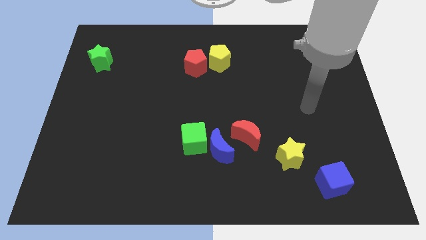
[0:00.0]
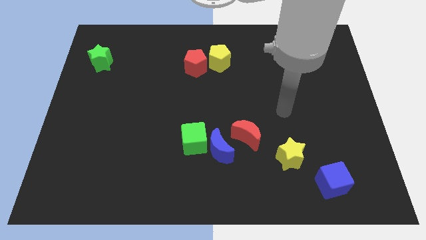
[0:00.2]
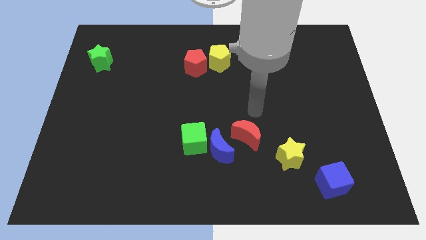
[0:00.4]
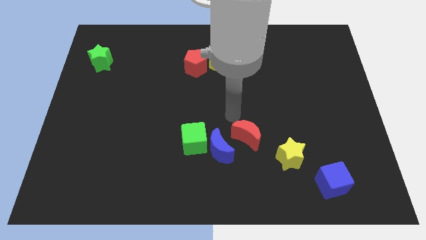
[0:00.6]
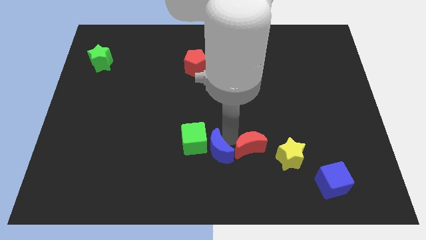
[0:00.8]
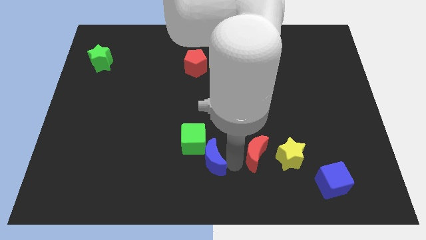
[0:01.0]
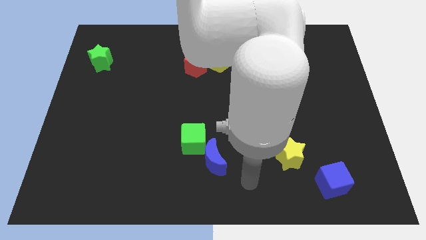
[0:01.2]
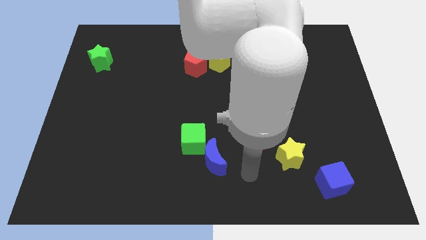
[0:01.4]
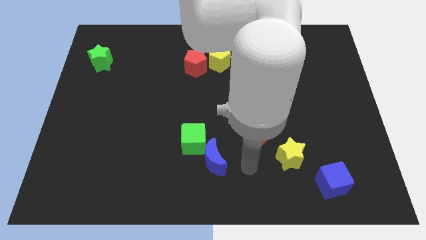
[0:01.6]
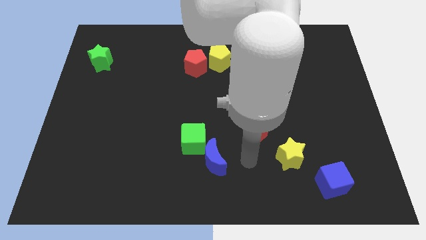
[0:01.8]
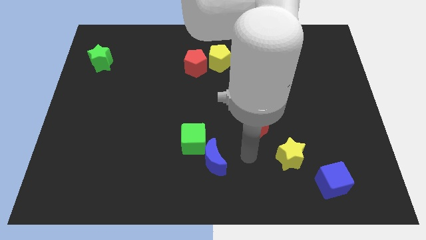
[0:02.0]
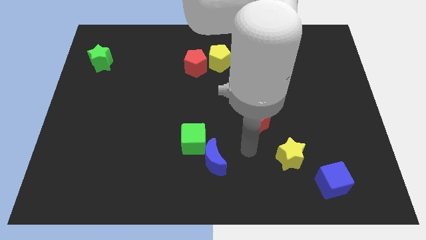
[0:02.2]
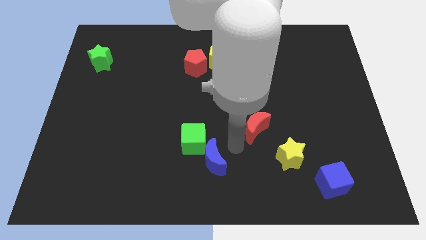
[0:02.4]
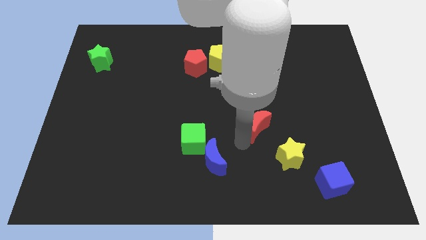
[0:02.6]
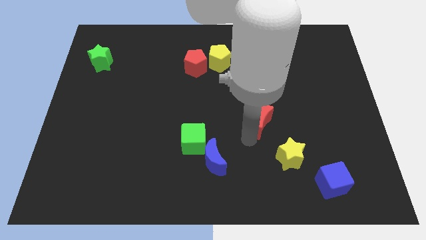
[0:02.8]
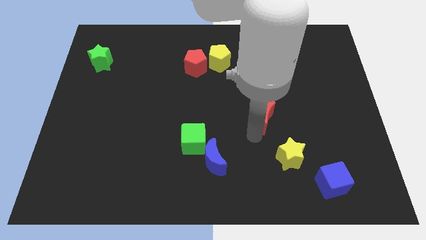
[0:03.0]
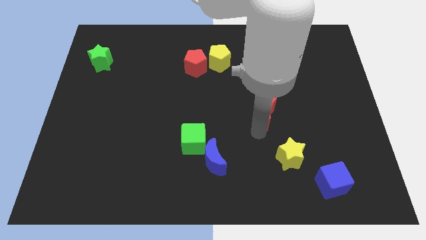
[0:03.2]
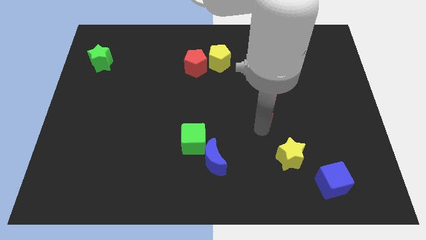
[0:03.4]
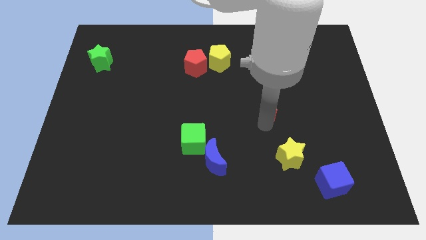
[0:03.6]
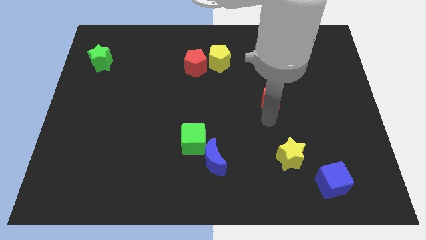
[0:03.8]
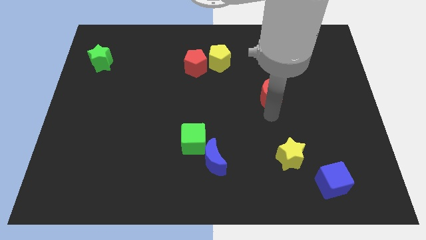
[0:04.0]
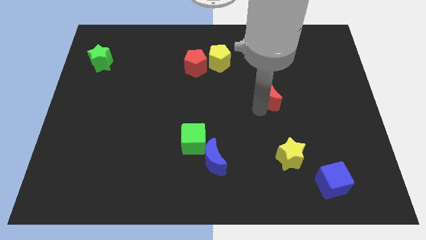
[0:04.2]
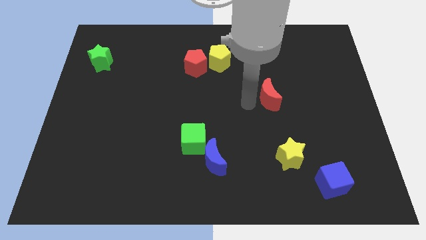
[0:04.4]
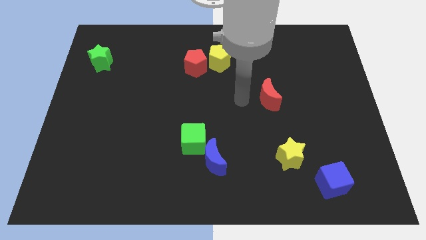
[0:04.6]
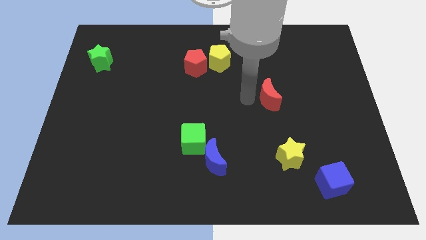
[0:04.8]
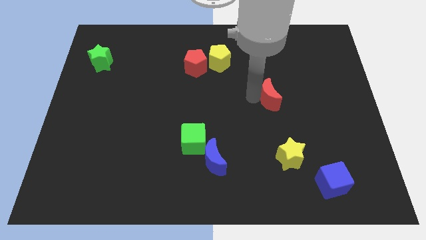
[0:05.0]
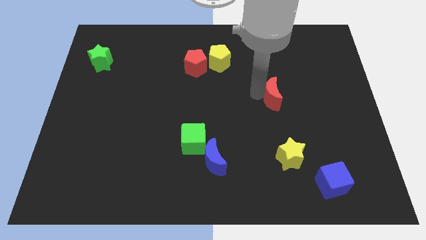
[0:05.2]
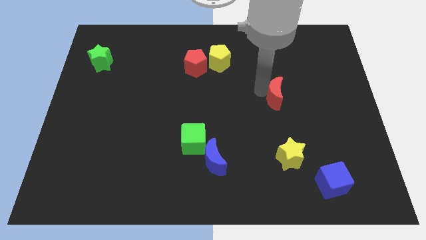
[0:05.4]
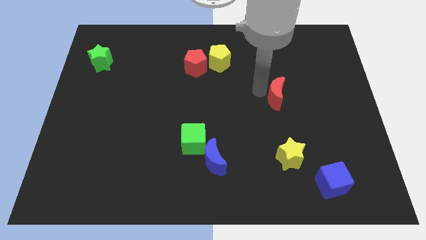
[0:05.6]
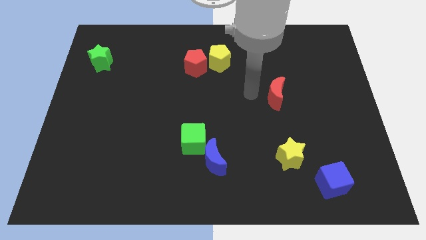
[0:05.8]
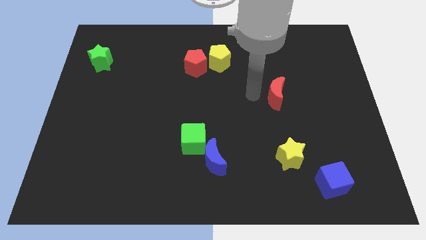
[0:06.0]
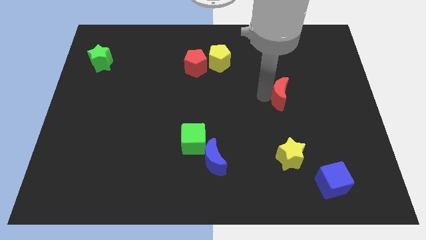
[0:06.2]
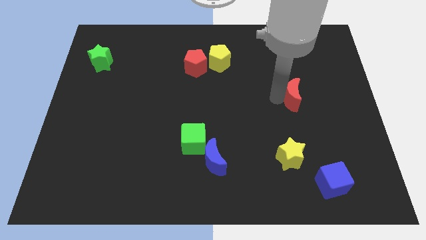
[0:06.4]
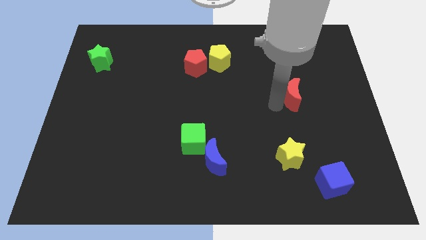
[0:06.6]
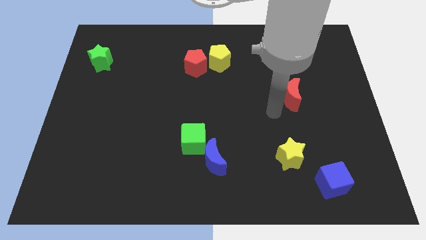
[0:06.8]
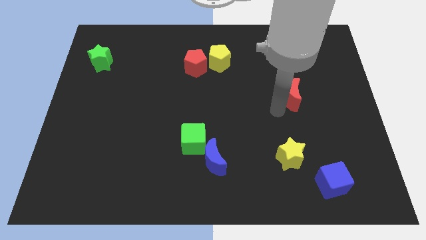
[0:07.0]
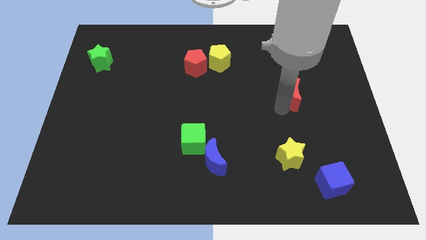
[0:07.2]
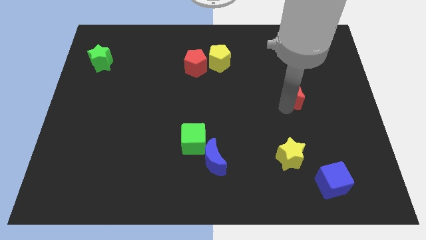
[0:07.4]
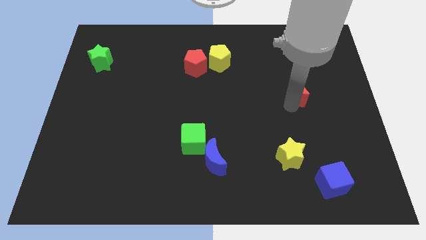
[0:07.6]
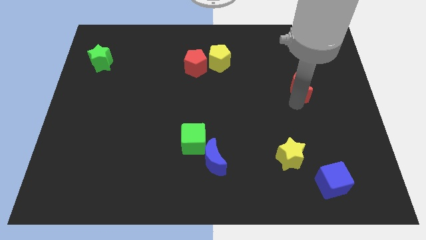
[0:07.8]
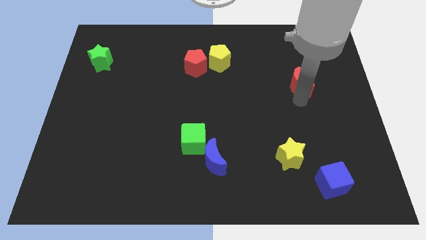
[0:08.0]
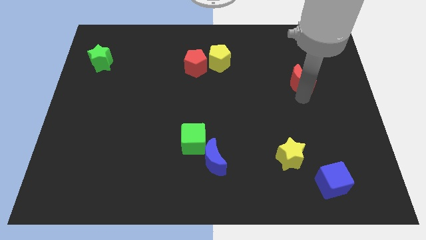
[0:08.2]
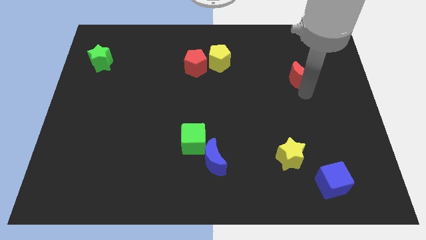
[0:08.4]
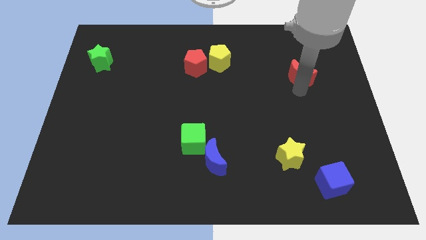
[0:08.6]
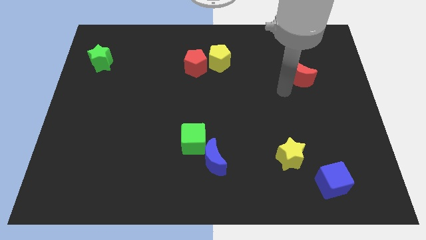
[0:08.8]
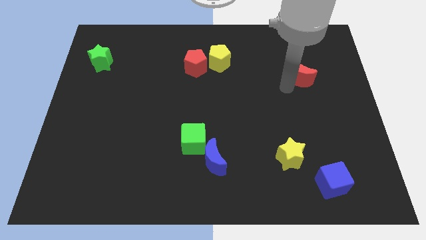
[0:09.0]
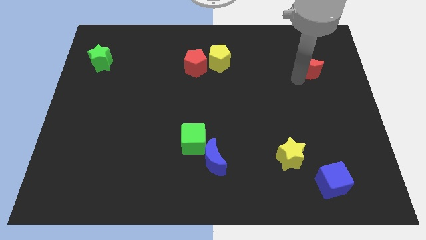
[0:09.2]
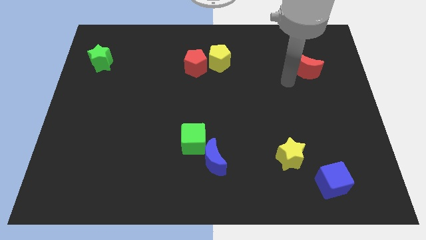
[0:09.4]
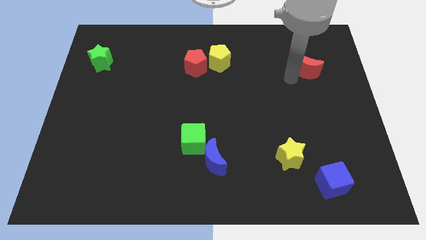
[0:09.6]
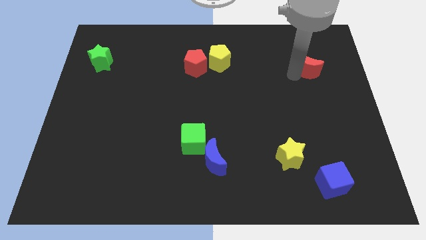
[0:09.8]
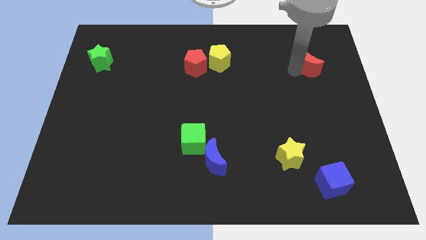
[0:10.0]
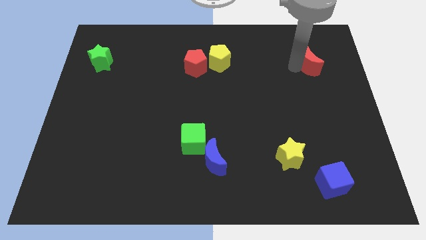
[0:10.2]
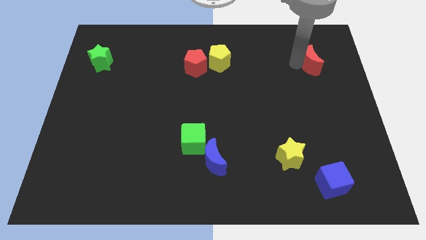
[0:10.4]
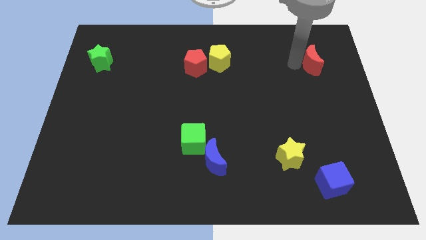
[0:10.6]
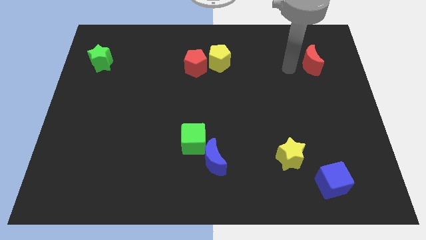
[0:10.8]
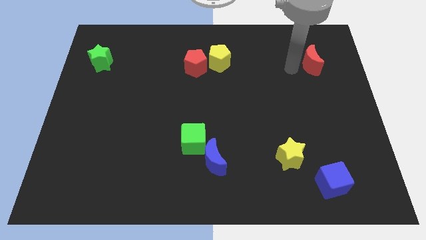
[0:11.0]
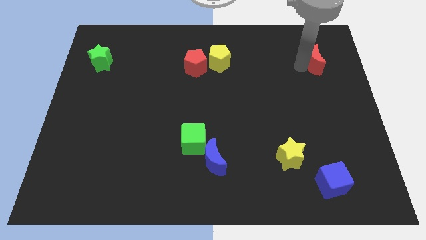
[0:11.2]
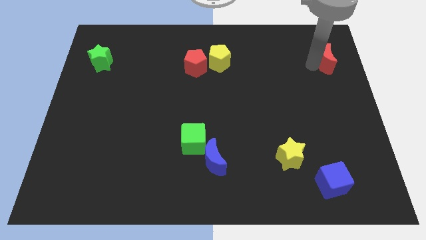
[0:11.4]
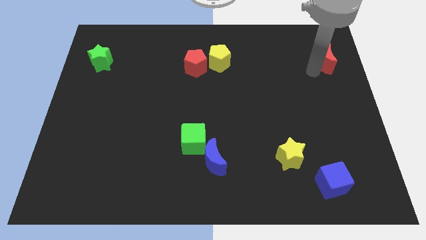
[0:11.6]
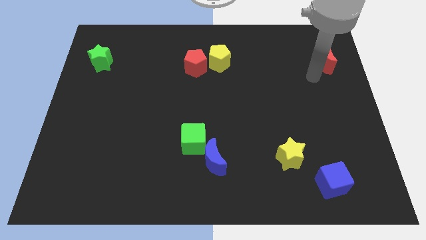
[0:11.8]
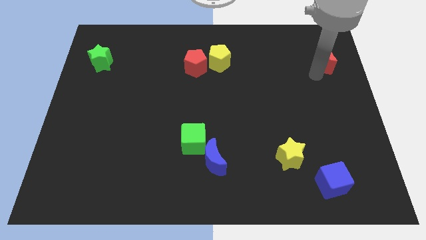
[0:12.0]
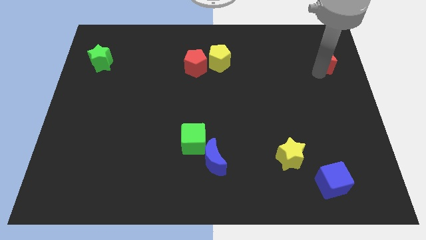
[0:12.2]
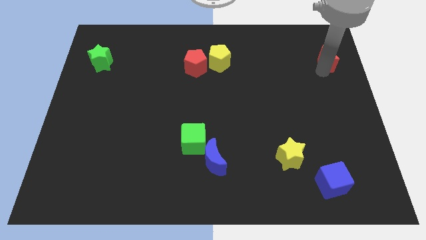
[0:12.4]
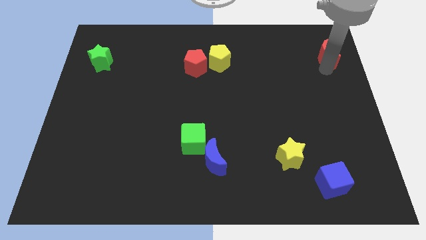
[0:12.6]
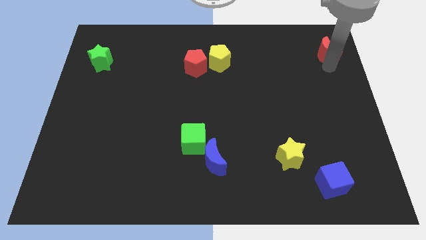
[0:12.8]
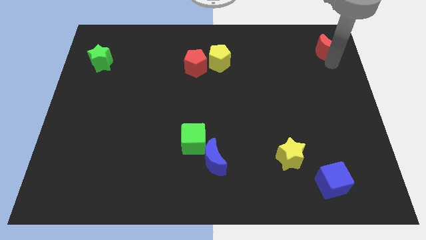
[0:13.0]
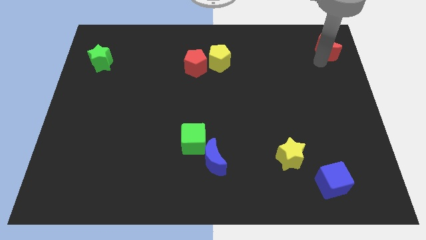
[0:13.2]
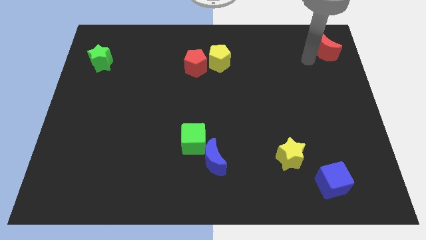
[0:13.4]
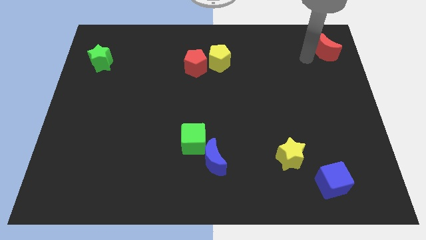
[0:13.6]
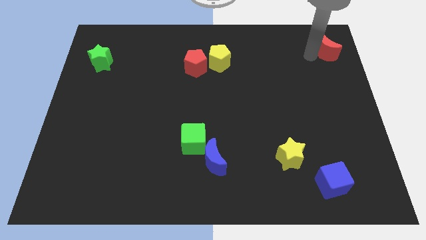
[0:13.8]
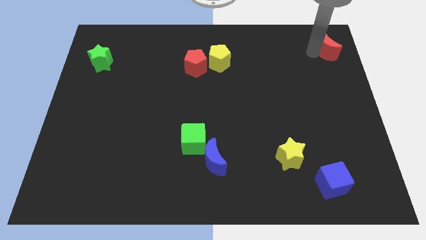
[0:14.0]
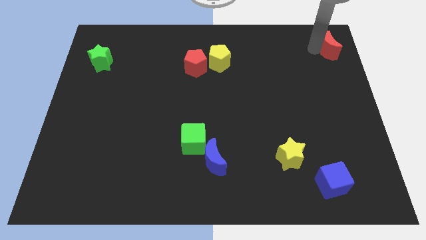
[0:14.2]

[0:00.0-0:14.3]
slide the red moon to the top right
